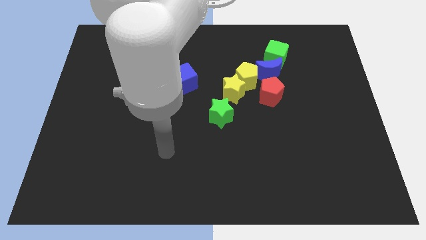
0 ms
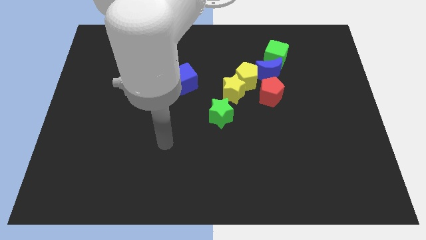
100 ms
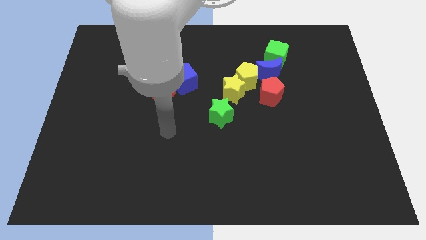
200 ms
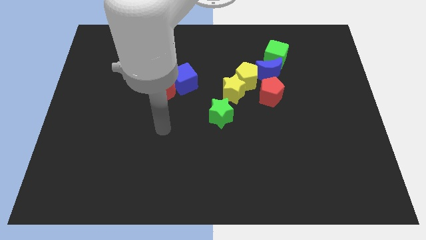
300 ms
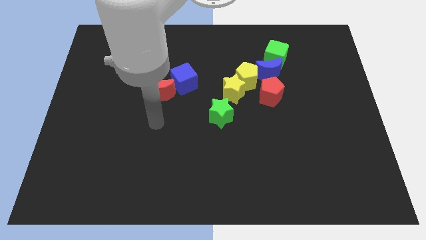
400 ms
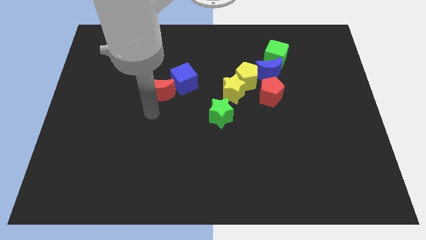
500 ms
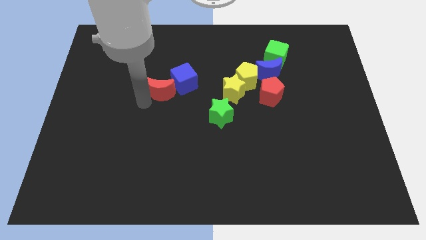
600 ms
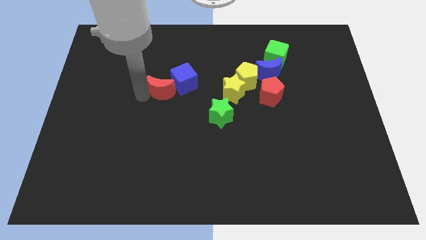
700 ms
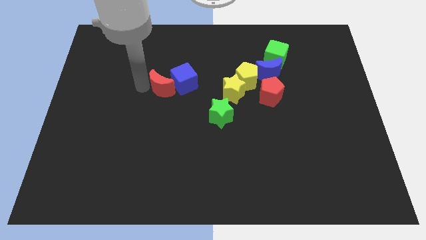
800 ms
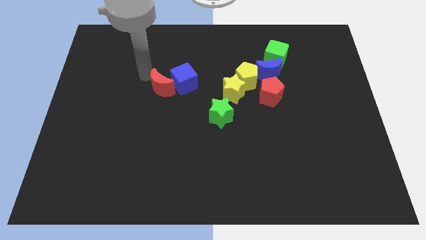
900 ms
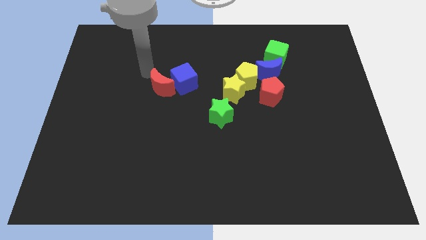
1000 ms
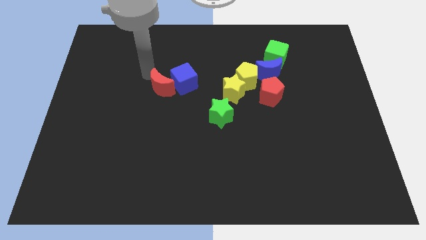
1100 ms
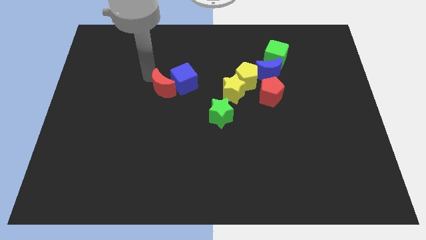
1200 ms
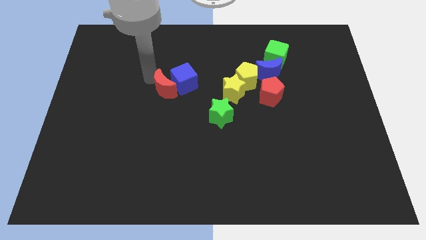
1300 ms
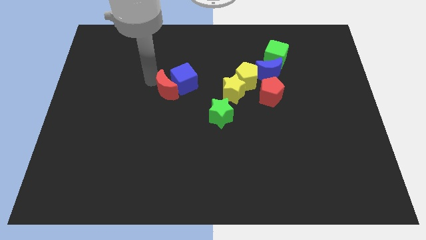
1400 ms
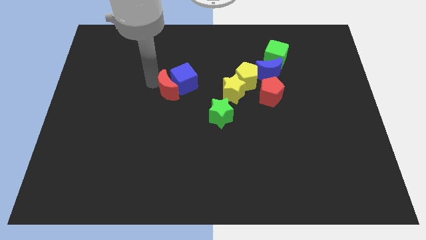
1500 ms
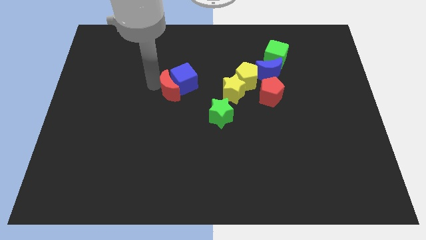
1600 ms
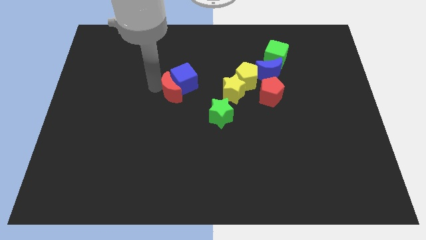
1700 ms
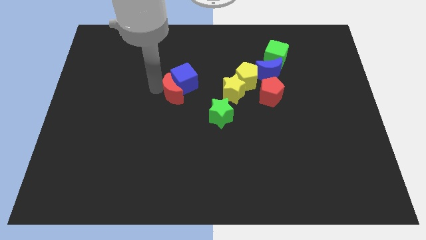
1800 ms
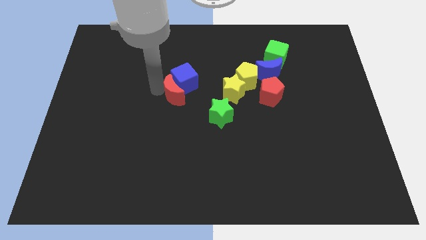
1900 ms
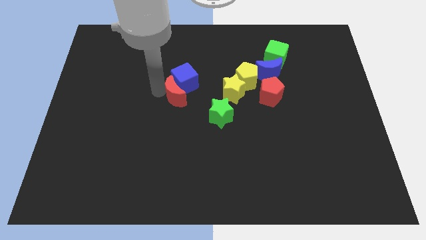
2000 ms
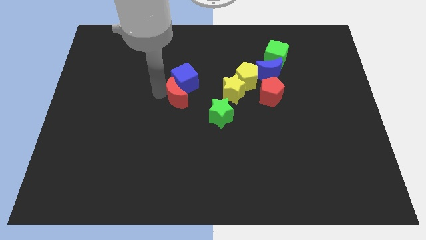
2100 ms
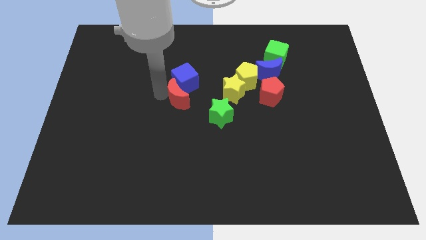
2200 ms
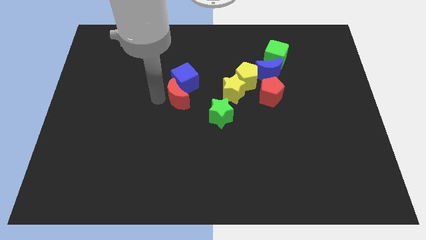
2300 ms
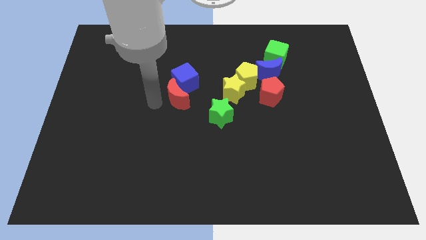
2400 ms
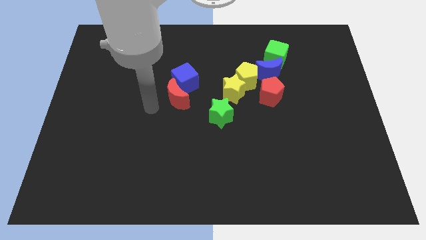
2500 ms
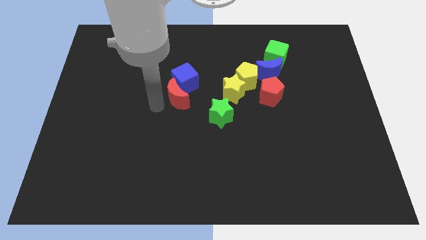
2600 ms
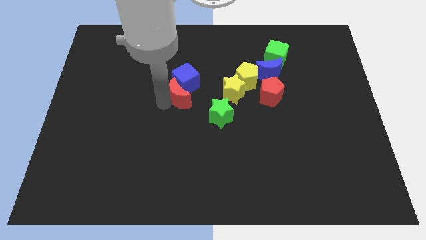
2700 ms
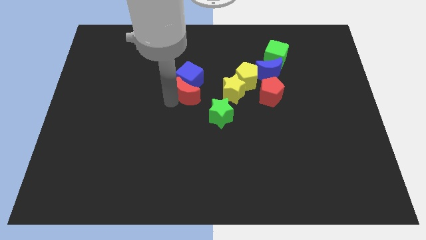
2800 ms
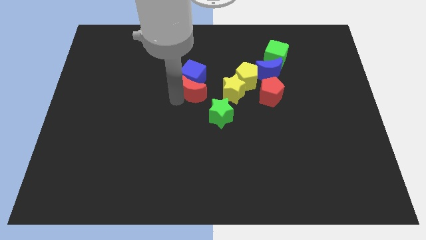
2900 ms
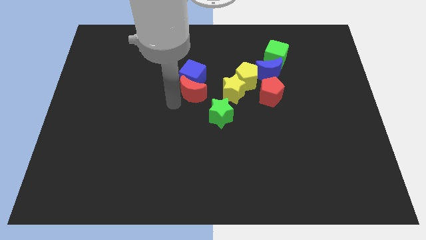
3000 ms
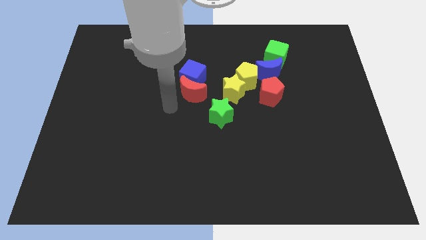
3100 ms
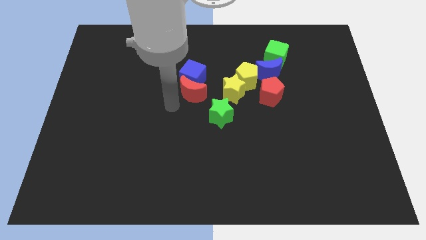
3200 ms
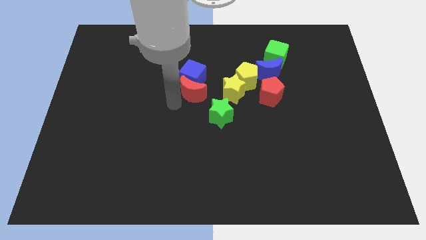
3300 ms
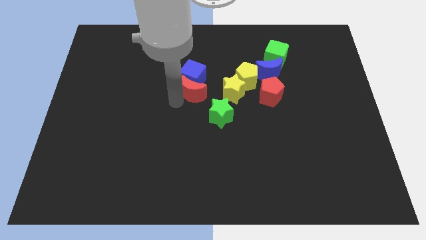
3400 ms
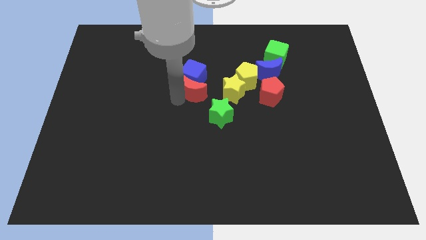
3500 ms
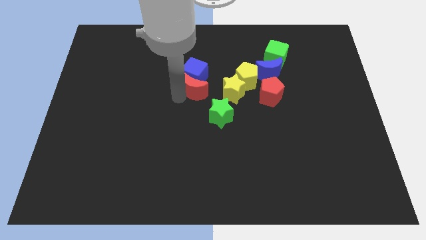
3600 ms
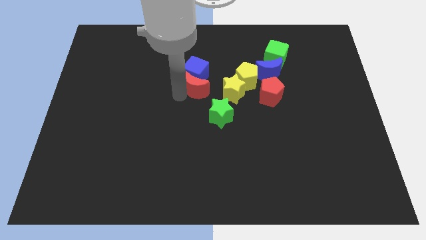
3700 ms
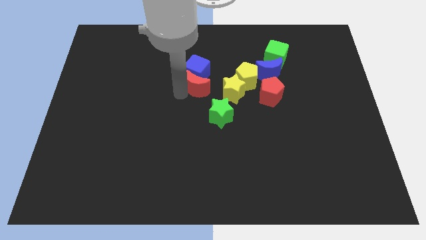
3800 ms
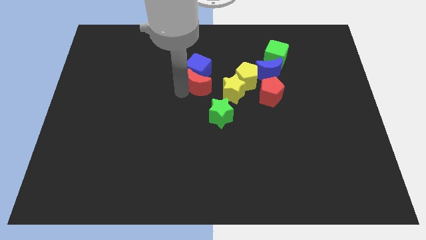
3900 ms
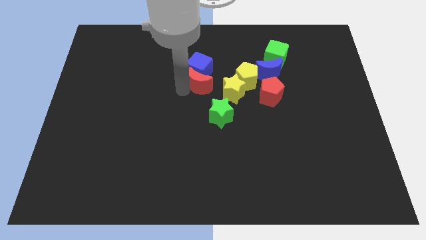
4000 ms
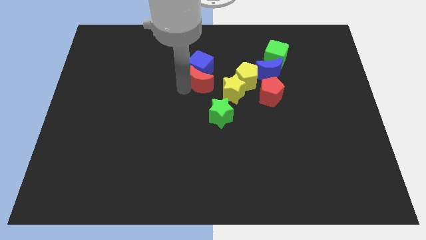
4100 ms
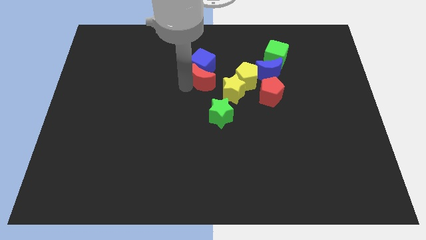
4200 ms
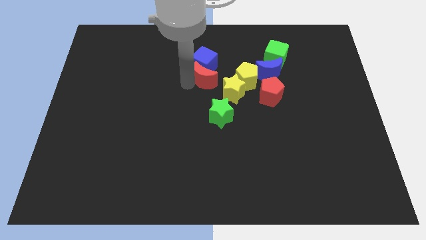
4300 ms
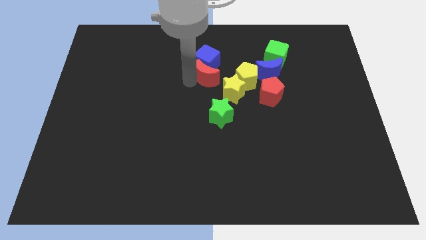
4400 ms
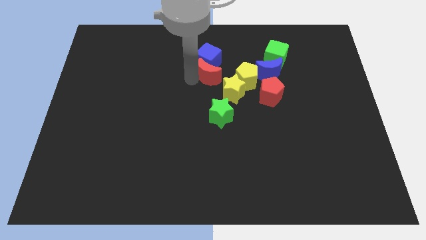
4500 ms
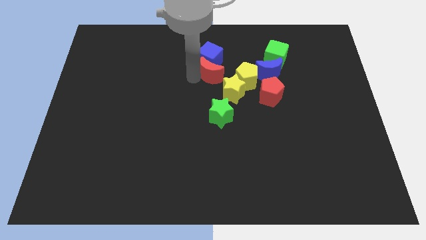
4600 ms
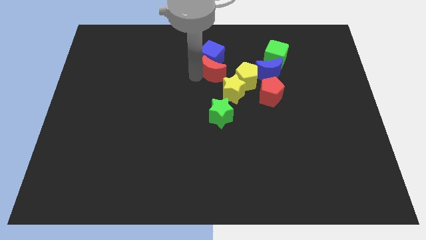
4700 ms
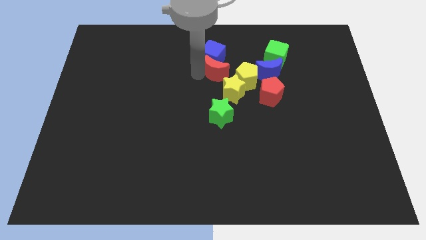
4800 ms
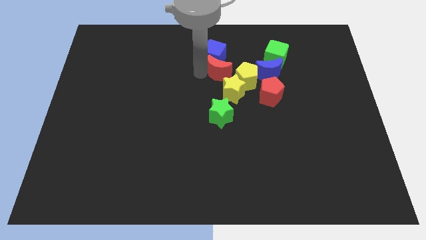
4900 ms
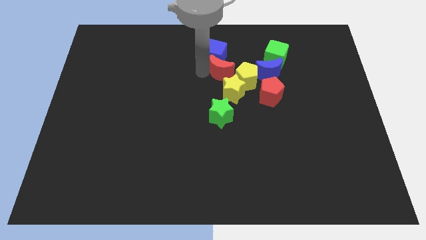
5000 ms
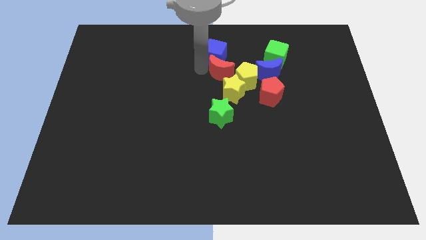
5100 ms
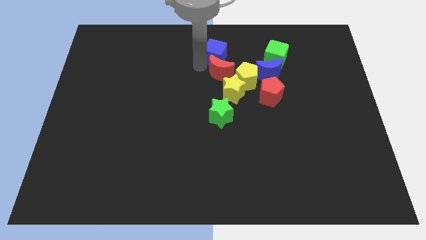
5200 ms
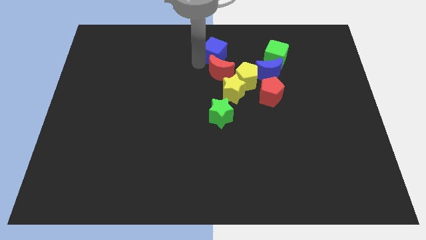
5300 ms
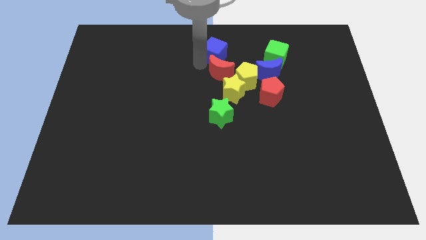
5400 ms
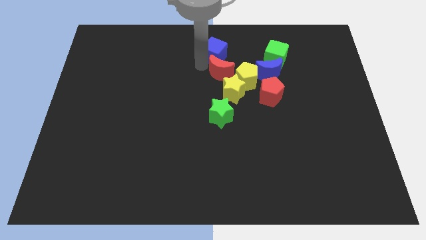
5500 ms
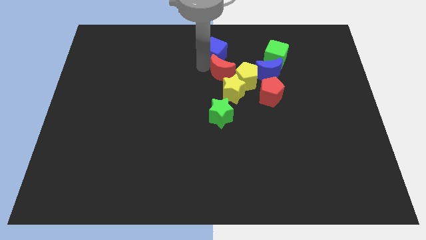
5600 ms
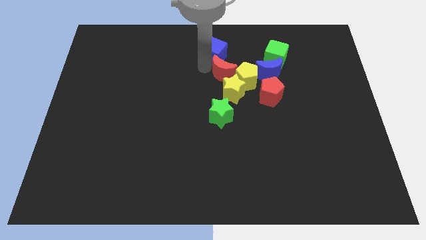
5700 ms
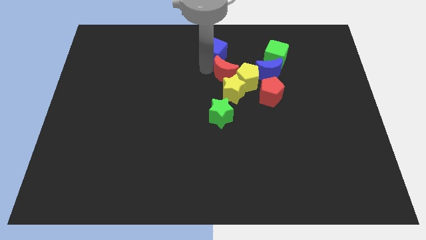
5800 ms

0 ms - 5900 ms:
slide the red moon to the yellow pentagon
